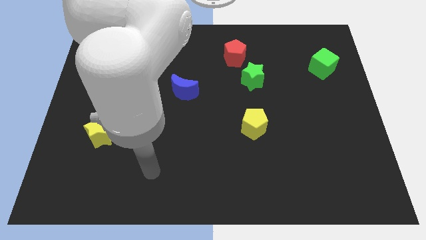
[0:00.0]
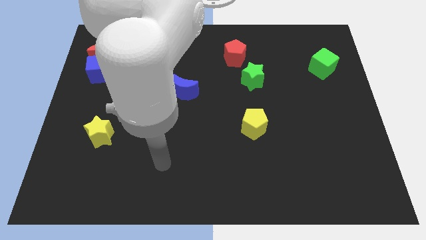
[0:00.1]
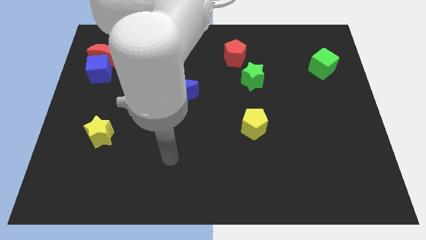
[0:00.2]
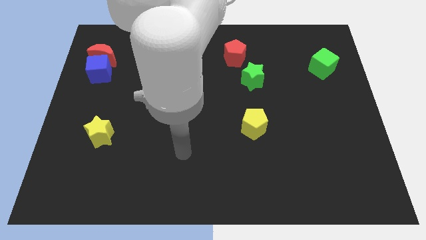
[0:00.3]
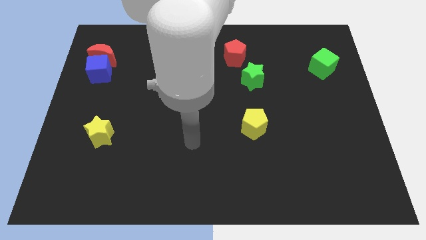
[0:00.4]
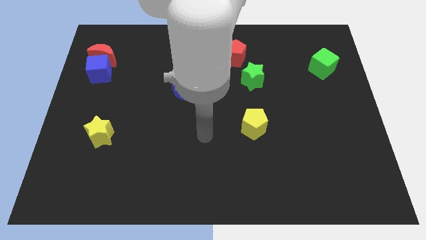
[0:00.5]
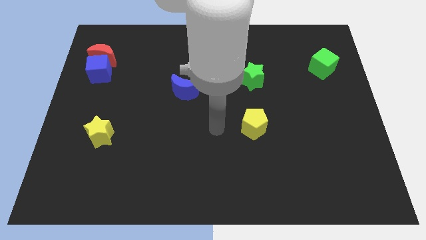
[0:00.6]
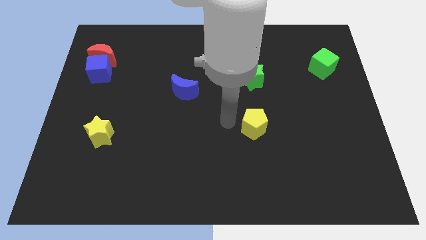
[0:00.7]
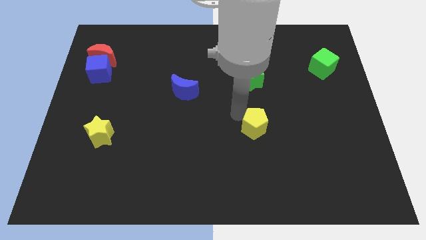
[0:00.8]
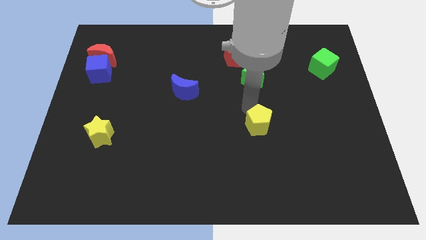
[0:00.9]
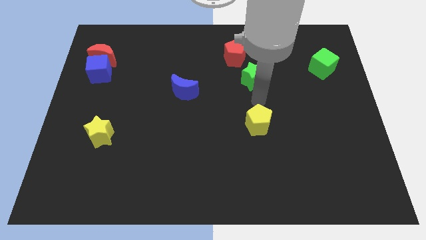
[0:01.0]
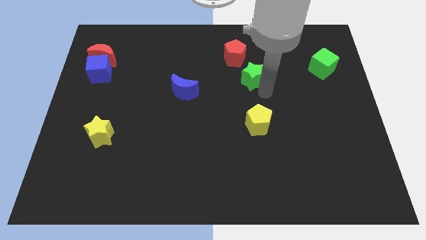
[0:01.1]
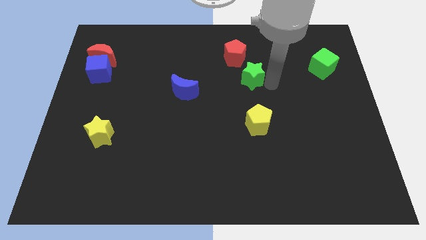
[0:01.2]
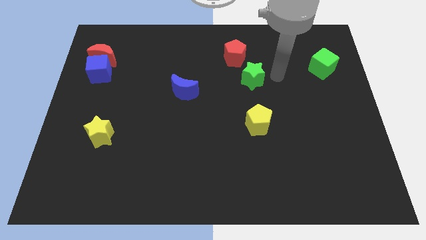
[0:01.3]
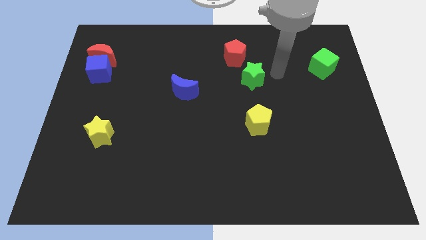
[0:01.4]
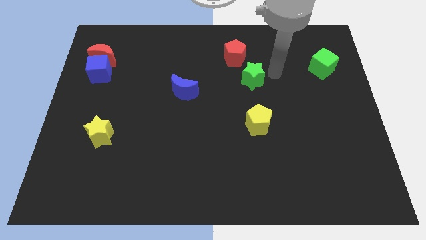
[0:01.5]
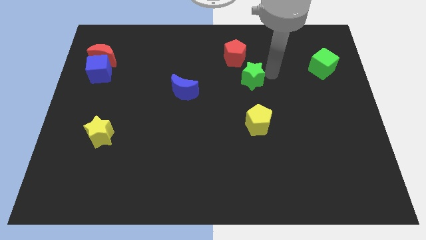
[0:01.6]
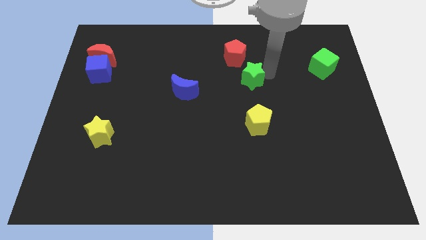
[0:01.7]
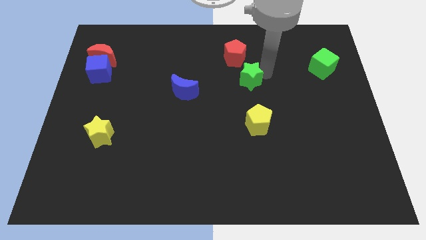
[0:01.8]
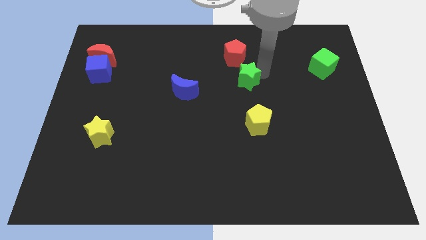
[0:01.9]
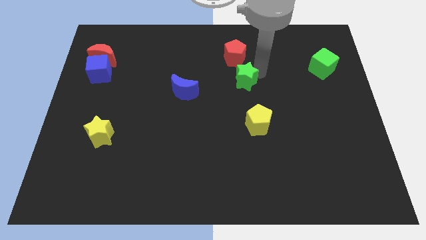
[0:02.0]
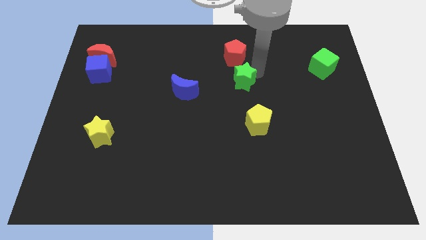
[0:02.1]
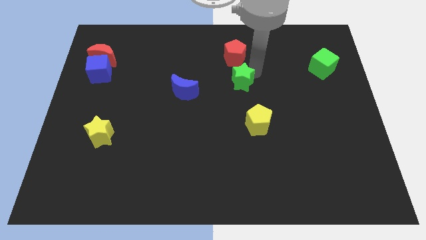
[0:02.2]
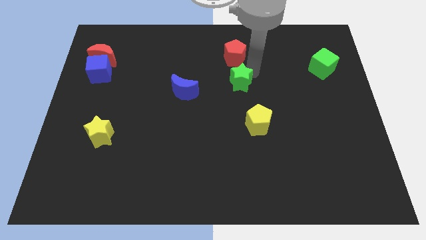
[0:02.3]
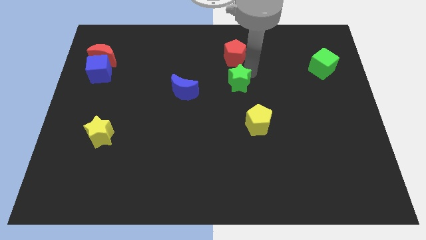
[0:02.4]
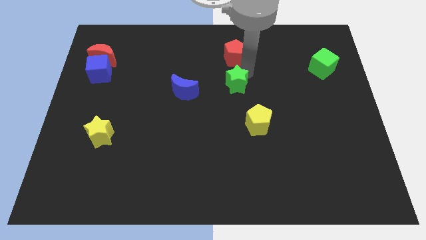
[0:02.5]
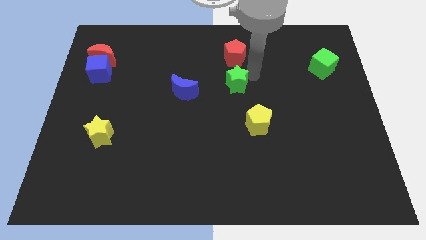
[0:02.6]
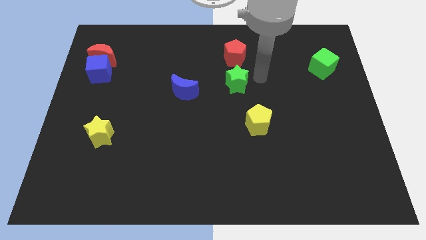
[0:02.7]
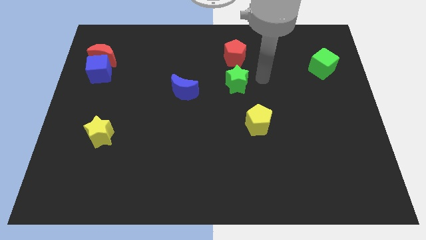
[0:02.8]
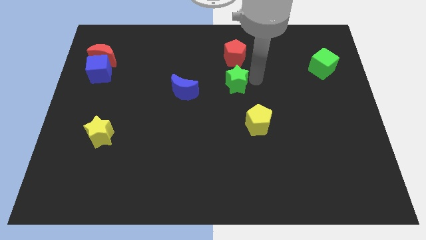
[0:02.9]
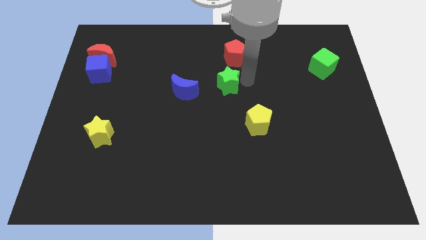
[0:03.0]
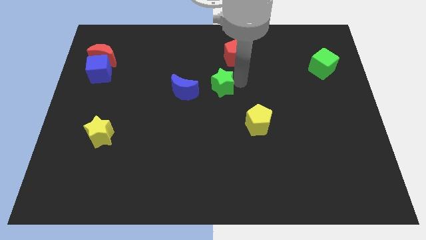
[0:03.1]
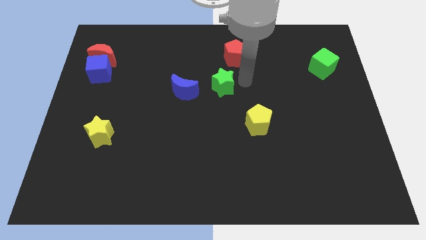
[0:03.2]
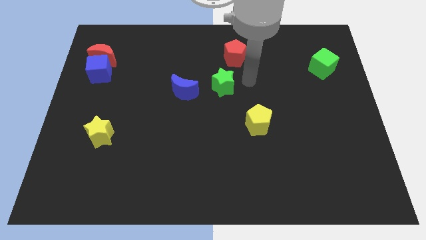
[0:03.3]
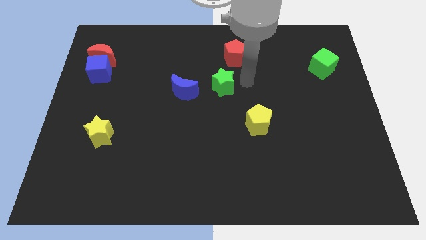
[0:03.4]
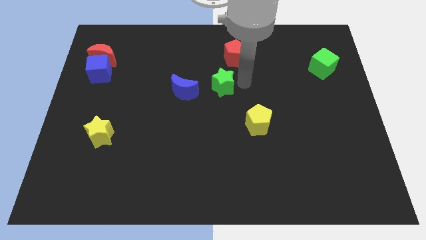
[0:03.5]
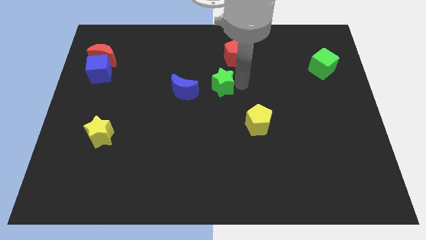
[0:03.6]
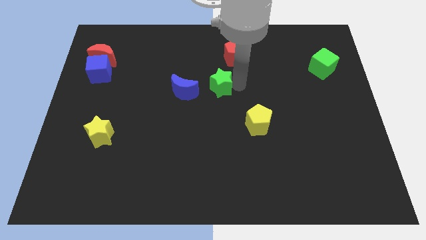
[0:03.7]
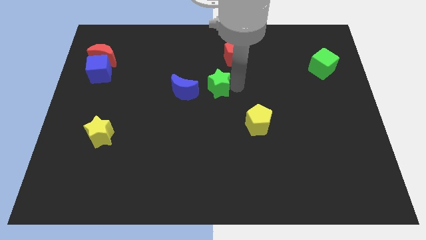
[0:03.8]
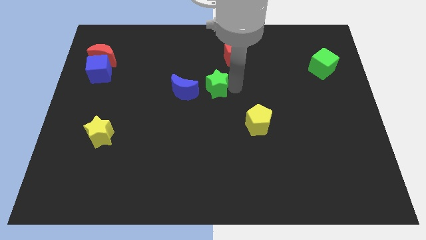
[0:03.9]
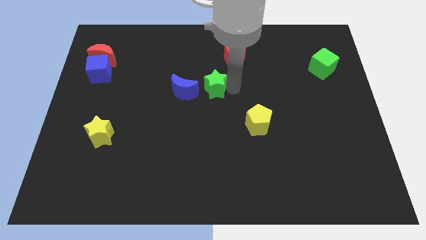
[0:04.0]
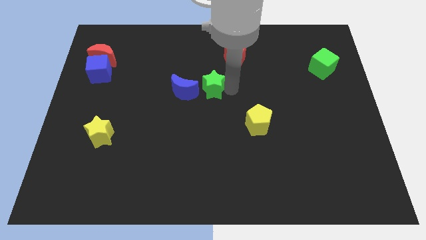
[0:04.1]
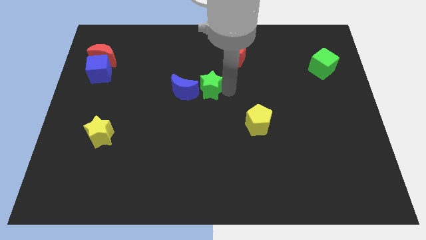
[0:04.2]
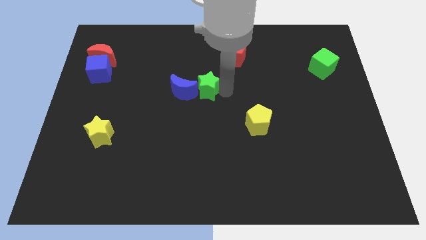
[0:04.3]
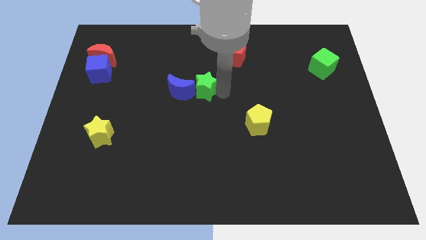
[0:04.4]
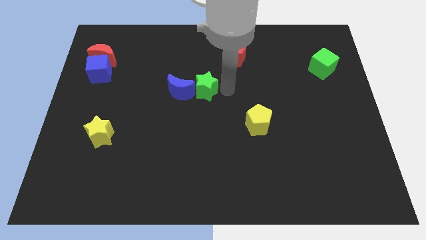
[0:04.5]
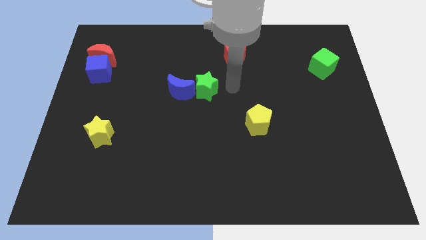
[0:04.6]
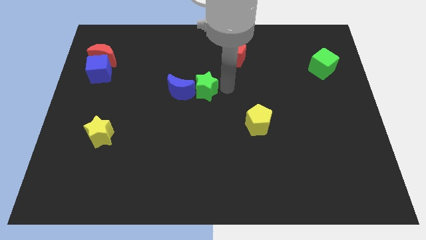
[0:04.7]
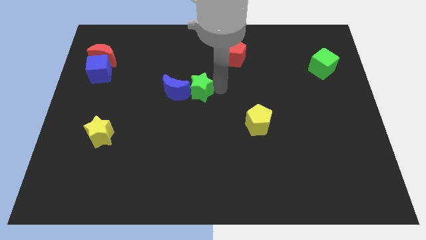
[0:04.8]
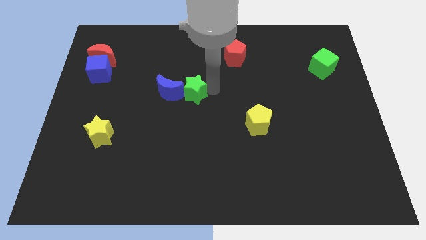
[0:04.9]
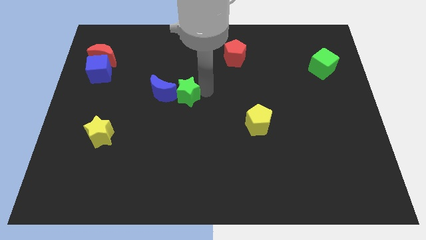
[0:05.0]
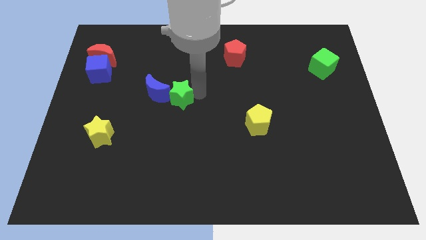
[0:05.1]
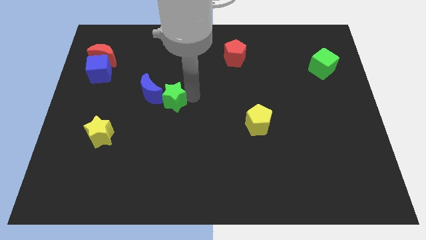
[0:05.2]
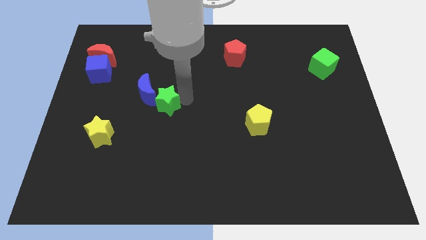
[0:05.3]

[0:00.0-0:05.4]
slide the green star next to the blue moon

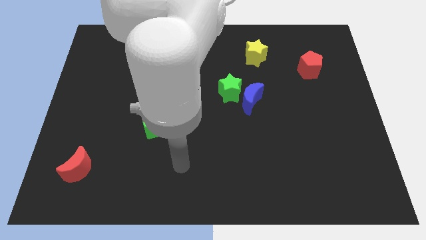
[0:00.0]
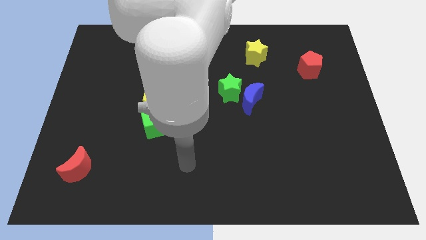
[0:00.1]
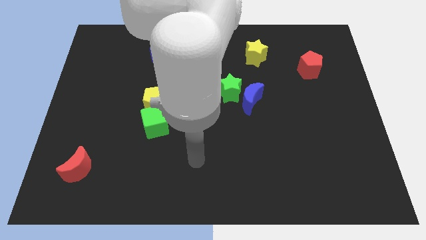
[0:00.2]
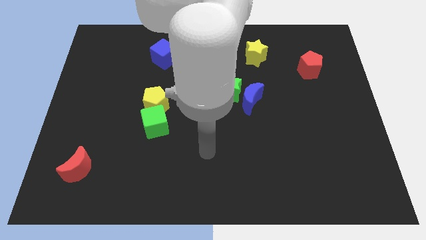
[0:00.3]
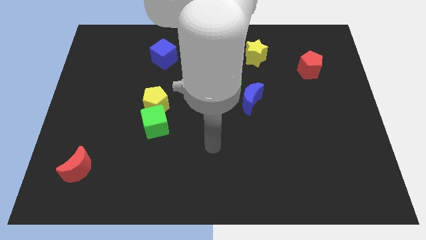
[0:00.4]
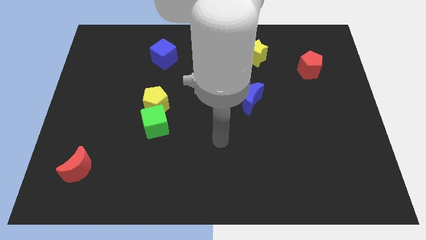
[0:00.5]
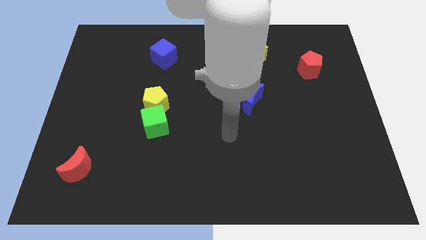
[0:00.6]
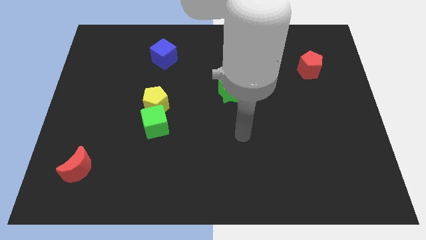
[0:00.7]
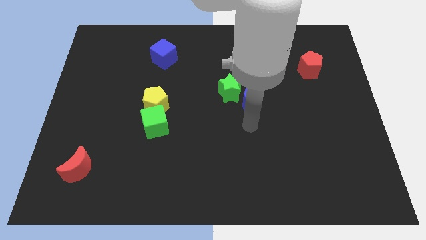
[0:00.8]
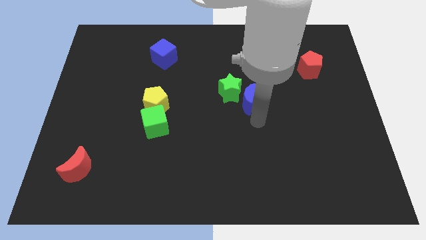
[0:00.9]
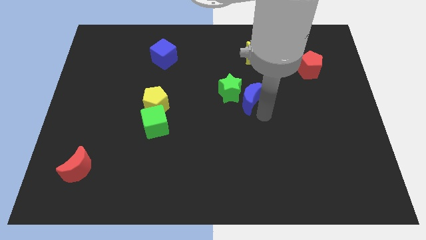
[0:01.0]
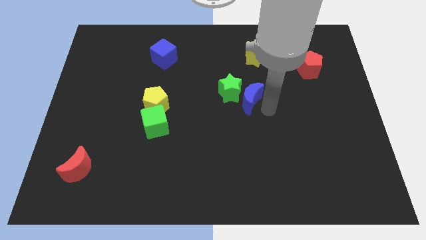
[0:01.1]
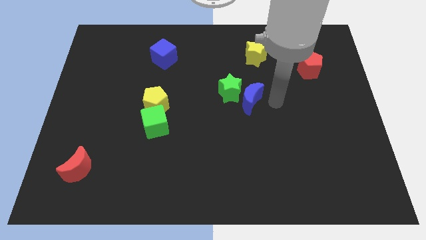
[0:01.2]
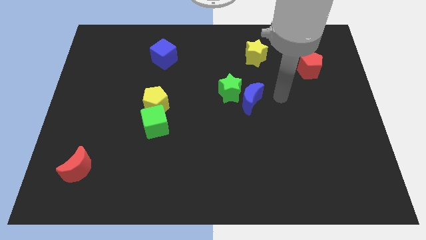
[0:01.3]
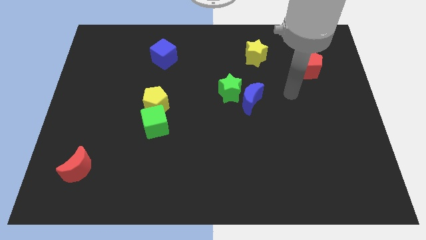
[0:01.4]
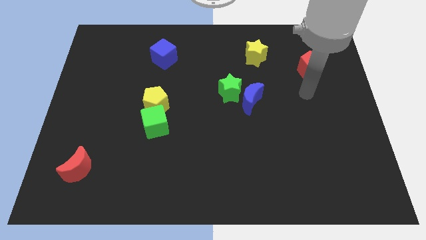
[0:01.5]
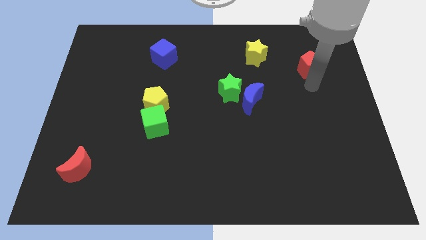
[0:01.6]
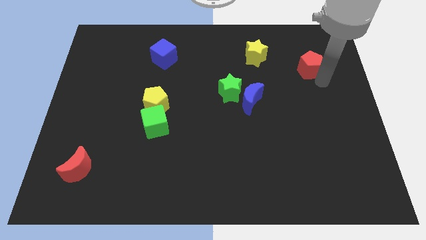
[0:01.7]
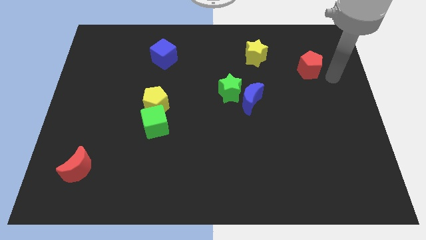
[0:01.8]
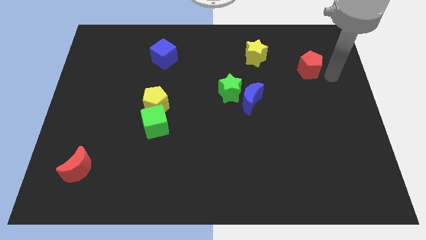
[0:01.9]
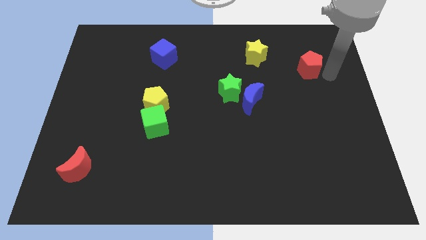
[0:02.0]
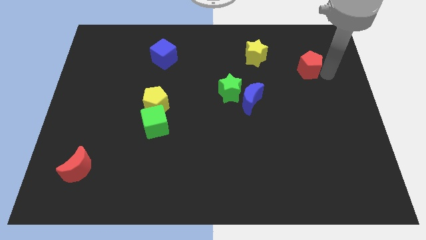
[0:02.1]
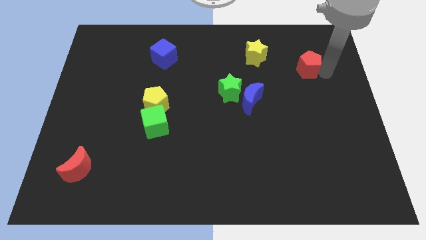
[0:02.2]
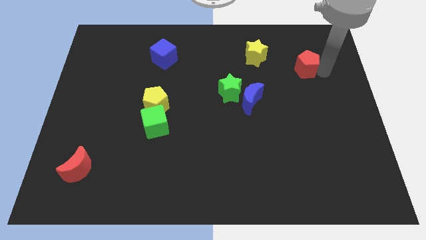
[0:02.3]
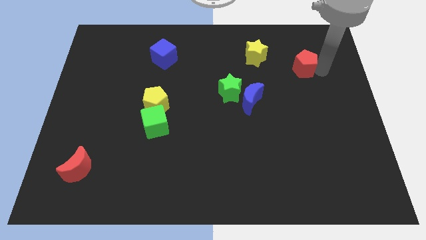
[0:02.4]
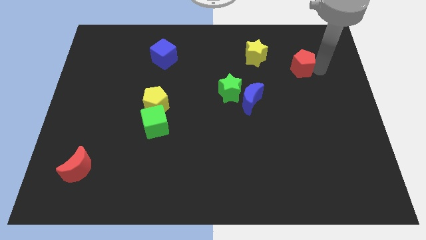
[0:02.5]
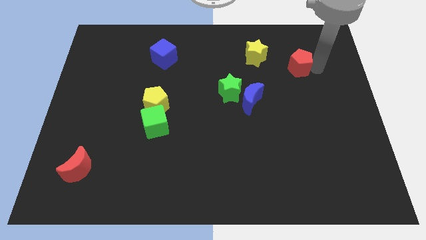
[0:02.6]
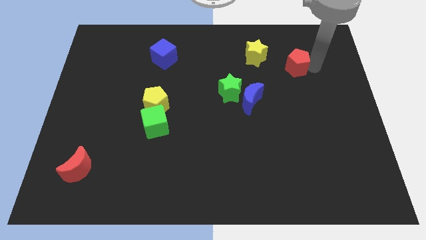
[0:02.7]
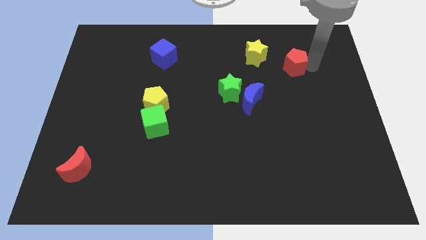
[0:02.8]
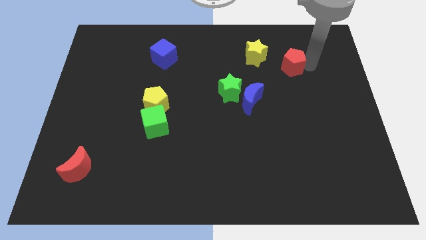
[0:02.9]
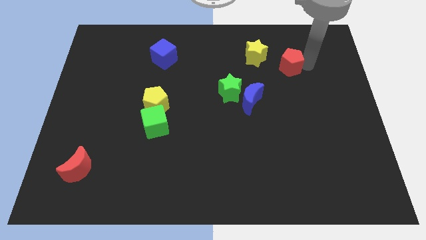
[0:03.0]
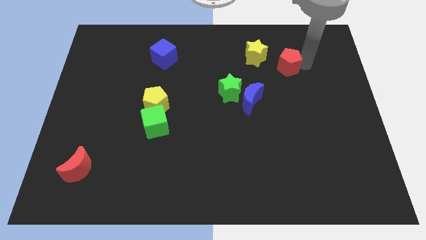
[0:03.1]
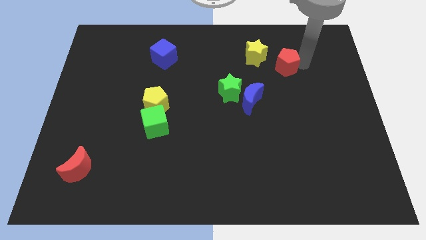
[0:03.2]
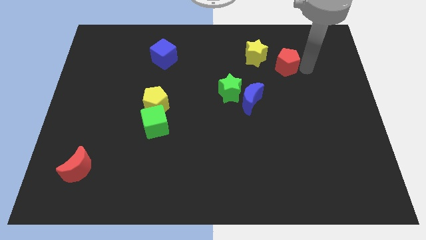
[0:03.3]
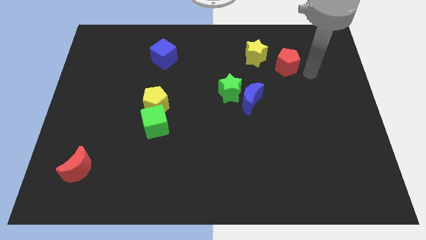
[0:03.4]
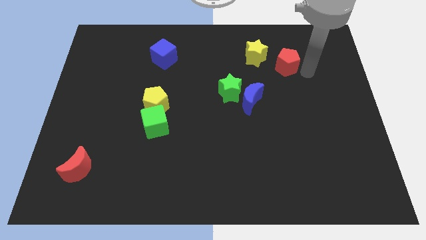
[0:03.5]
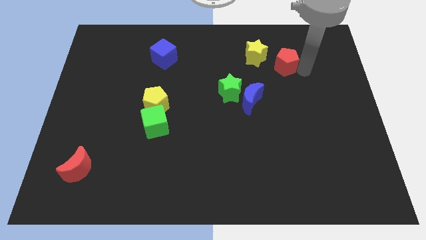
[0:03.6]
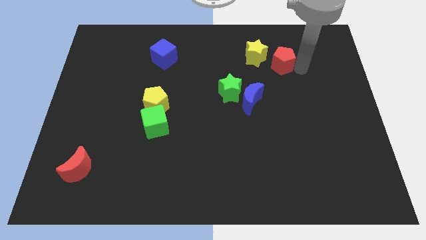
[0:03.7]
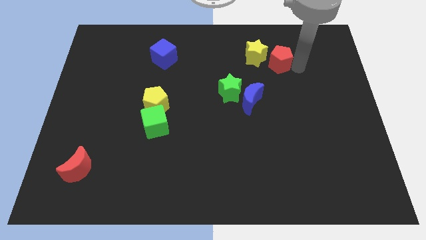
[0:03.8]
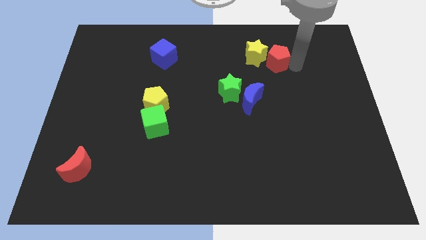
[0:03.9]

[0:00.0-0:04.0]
put the red pentagon to the yellow star
